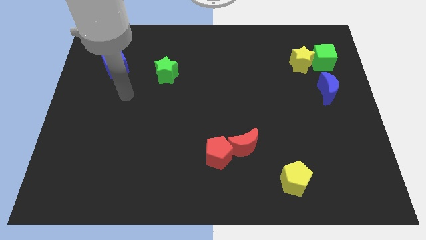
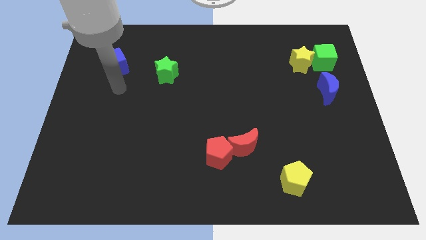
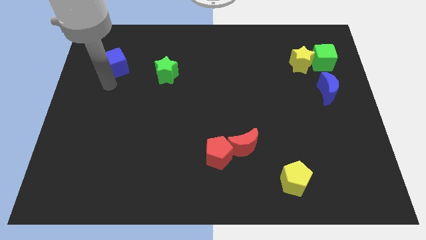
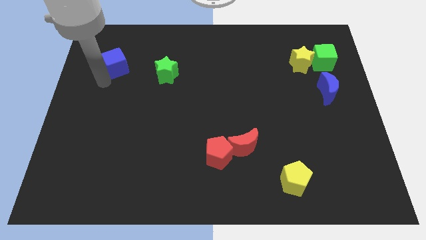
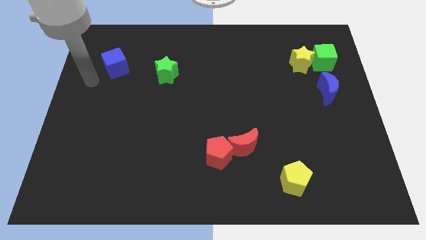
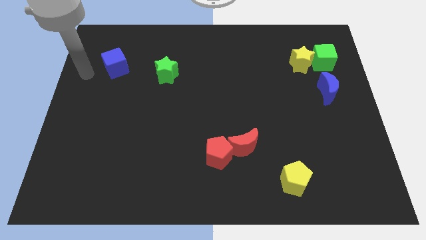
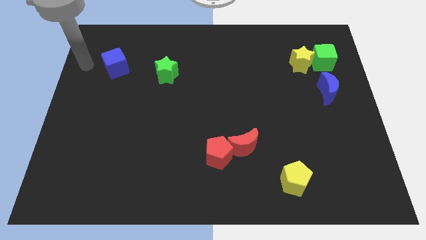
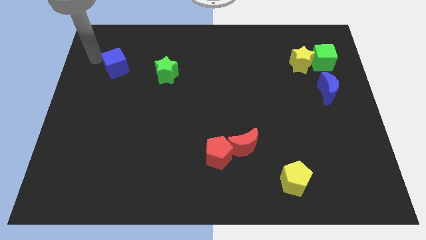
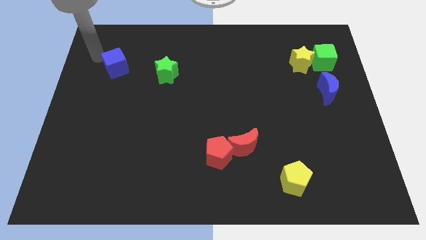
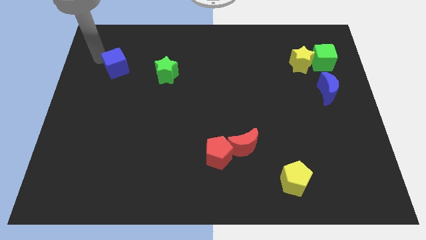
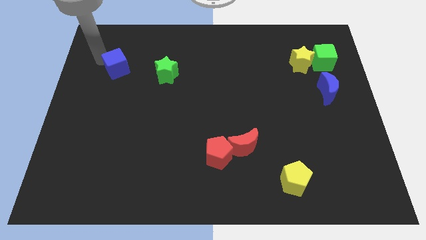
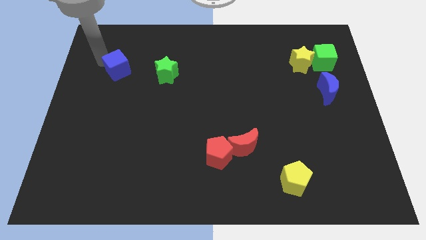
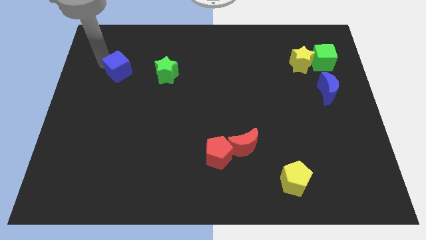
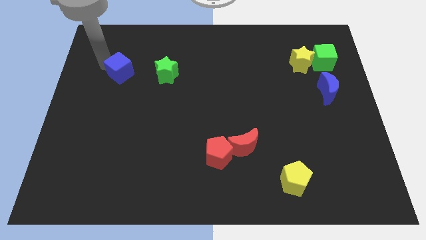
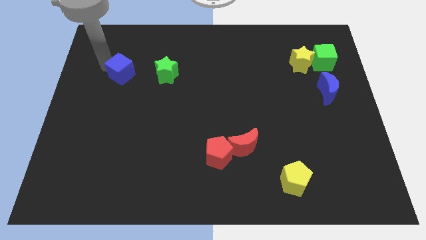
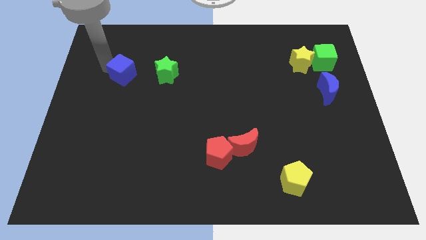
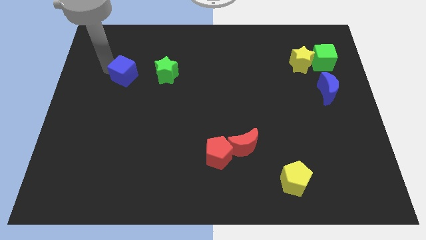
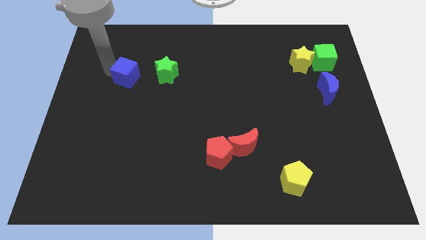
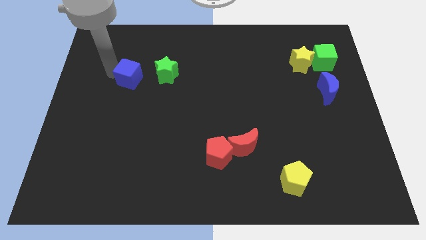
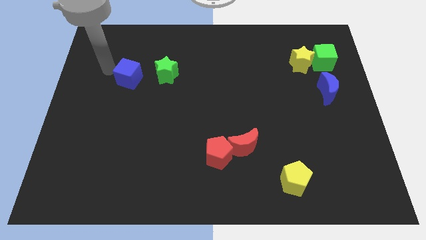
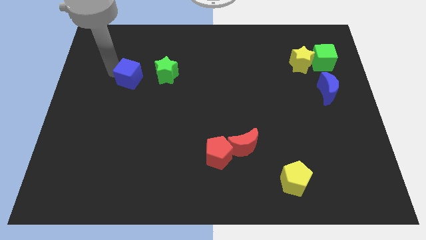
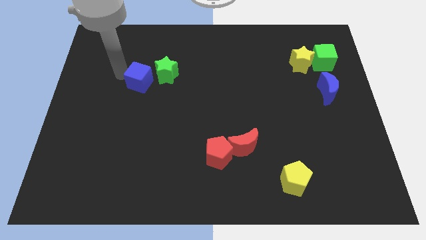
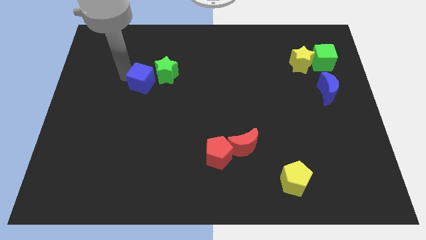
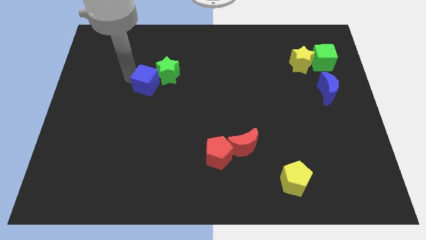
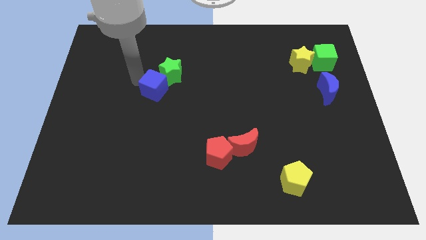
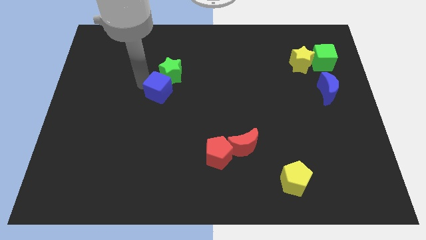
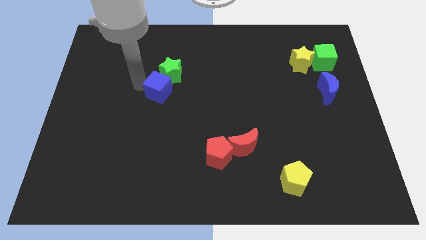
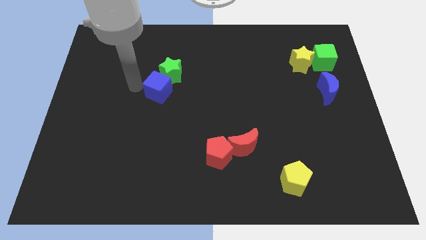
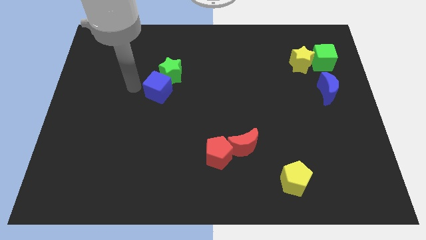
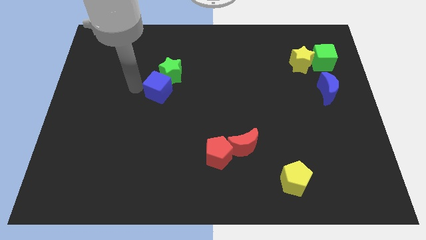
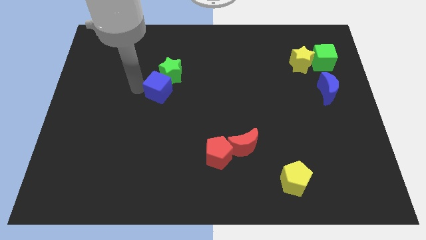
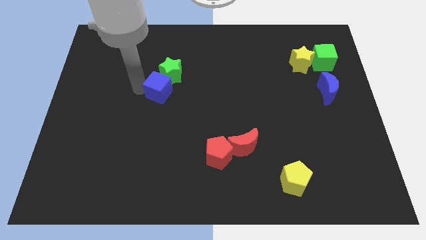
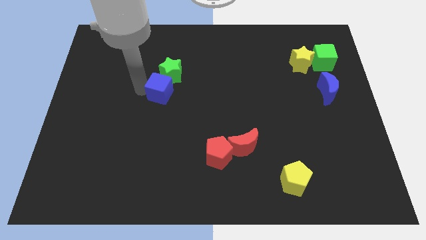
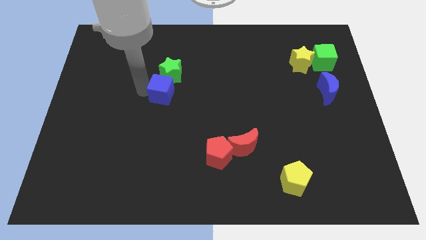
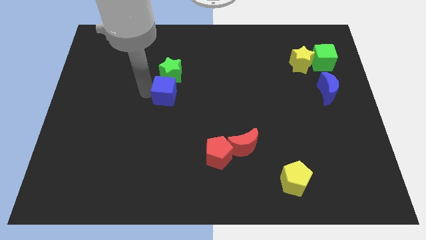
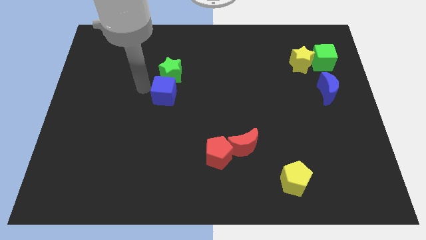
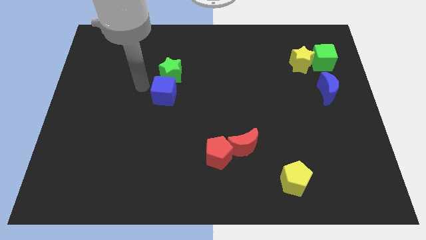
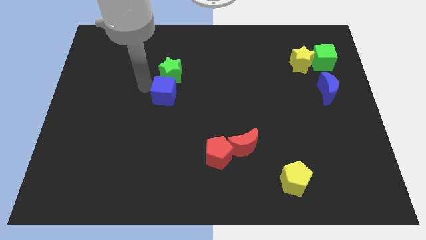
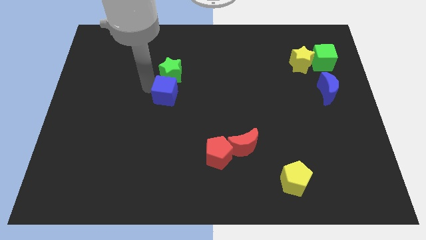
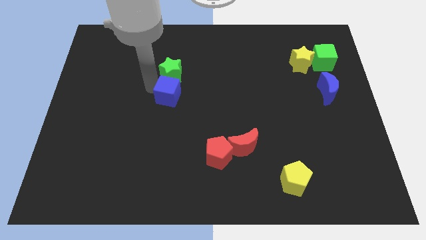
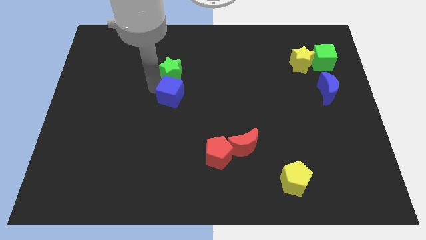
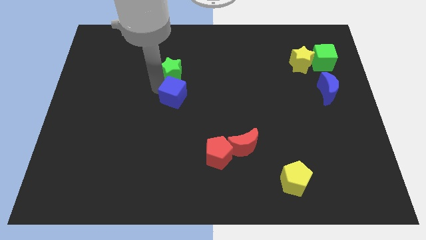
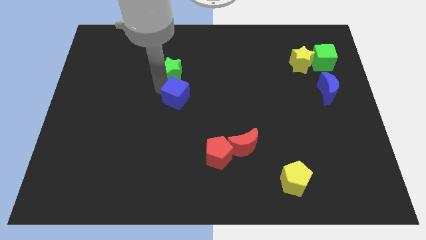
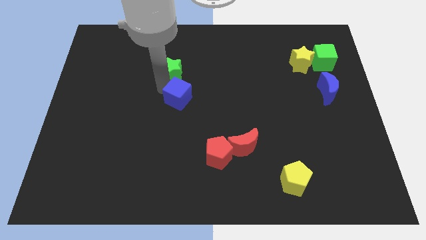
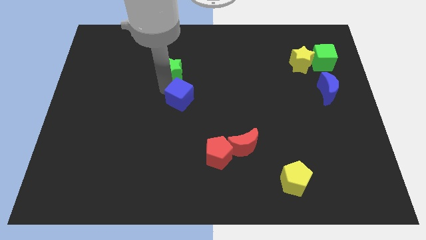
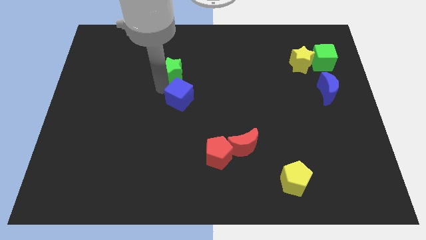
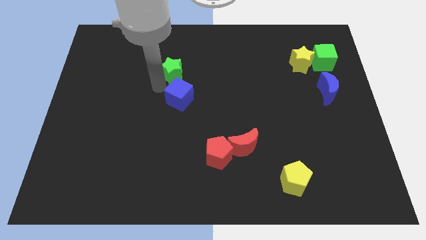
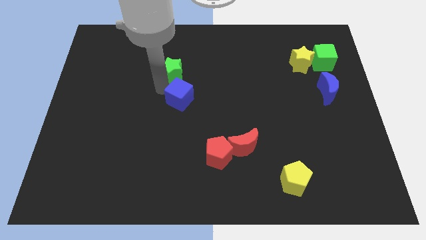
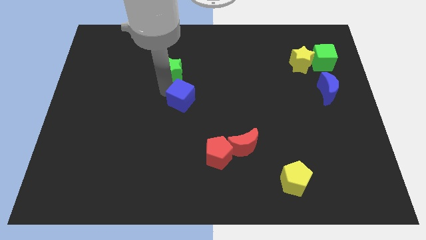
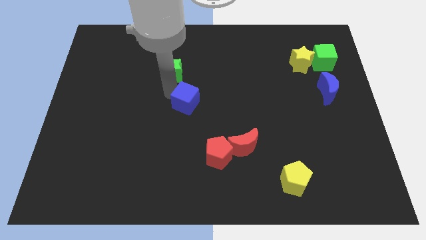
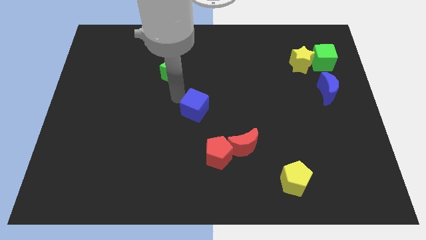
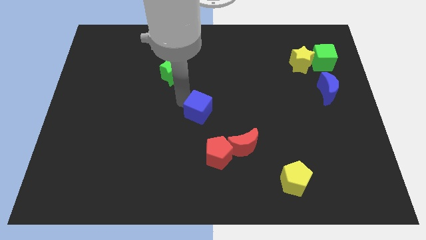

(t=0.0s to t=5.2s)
move the blue cube to the top side of the red pentagon

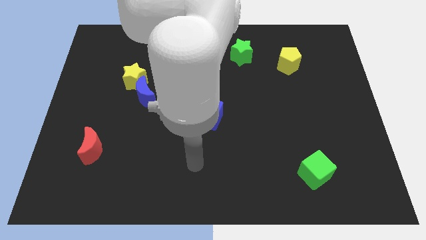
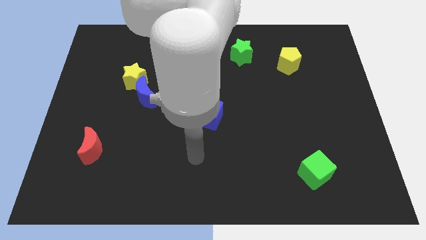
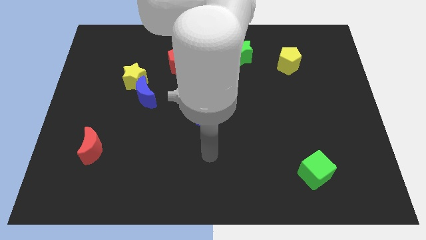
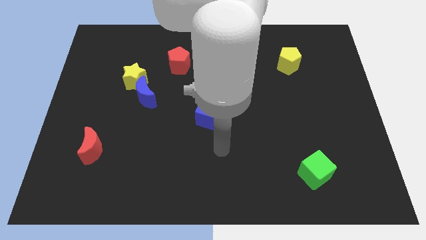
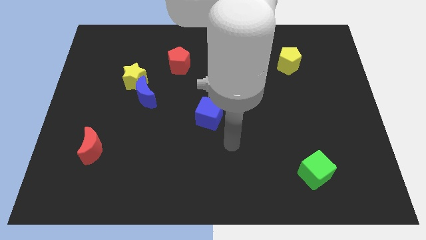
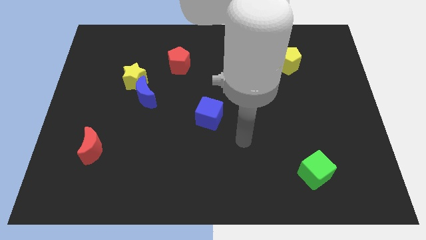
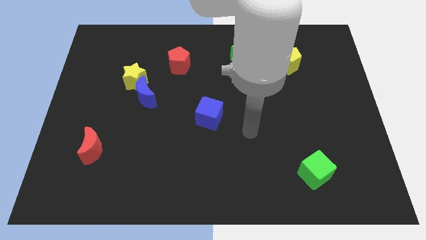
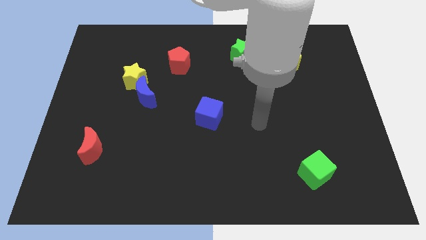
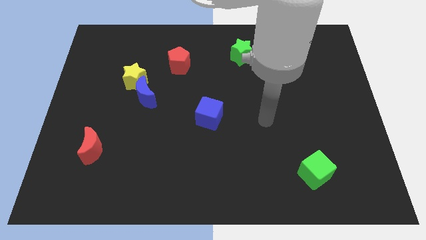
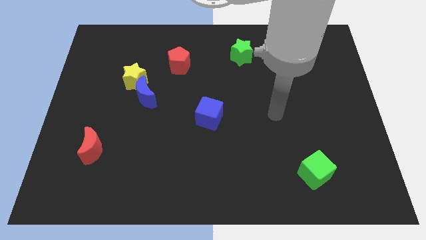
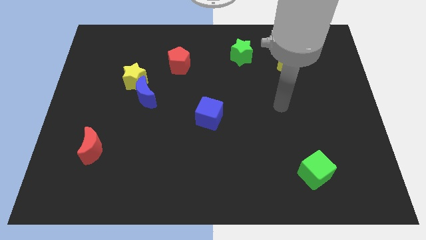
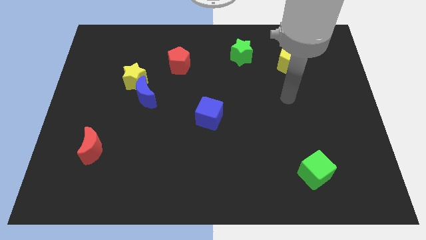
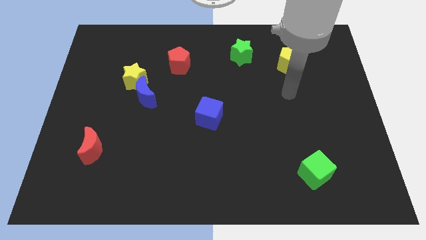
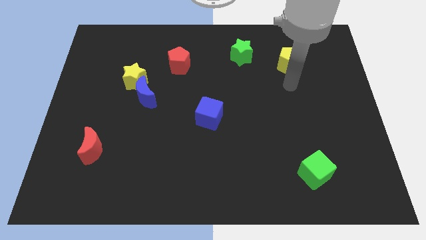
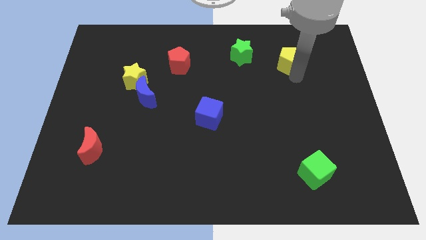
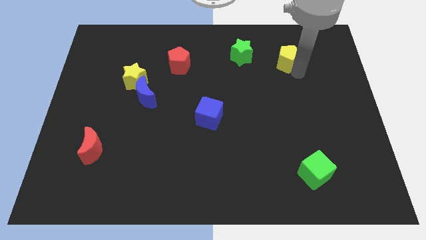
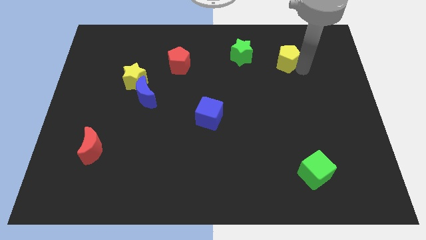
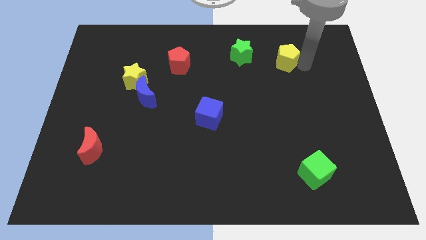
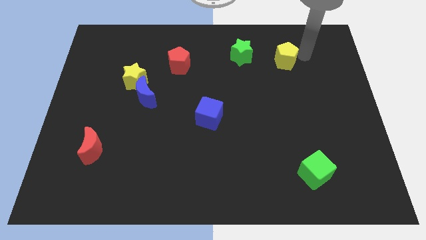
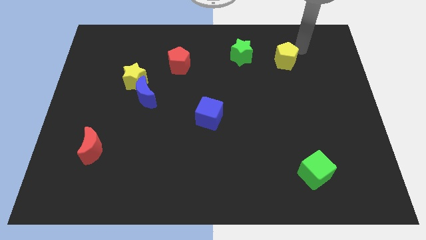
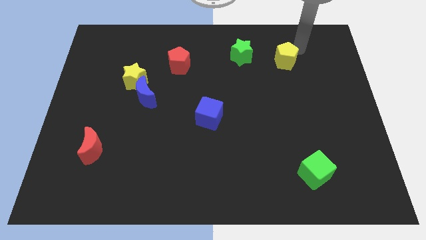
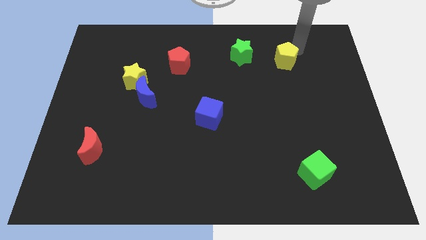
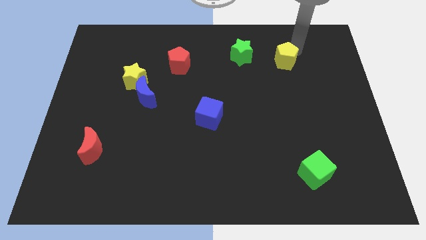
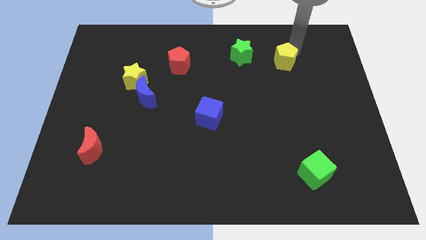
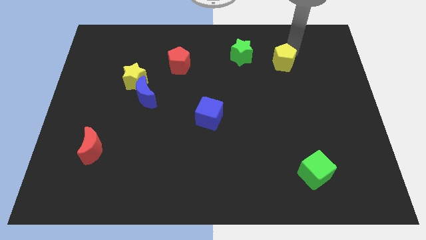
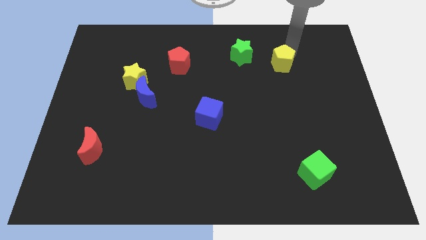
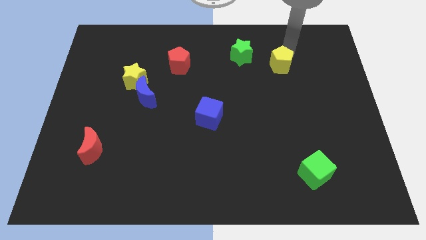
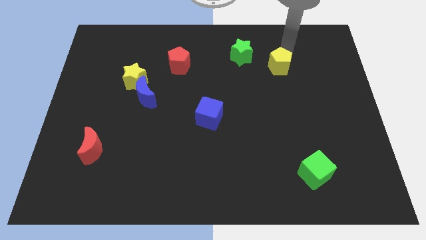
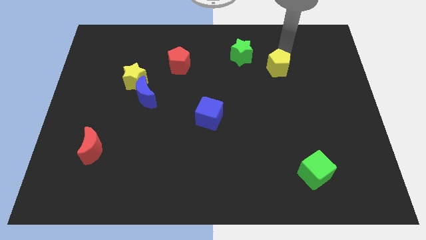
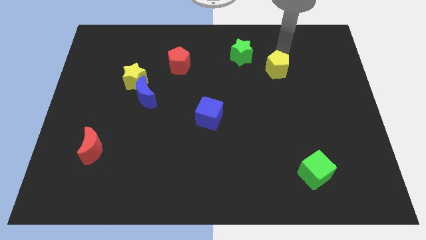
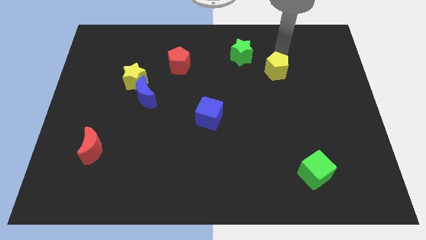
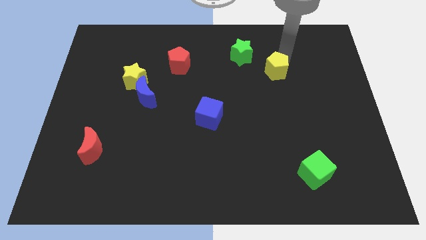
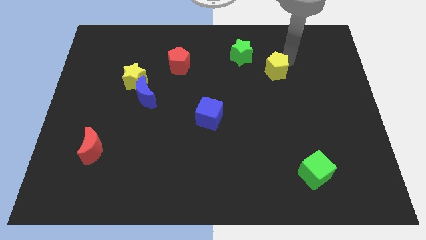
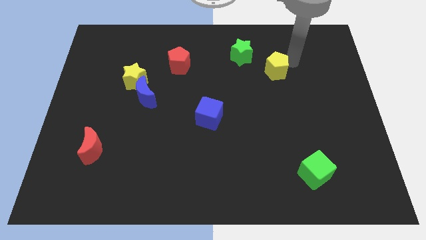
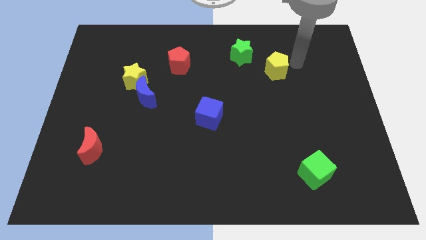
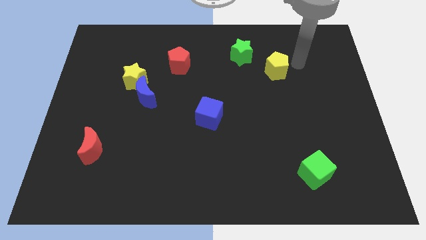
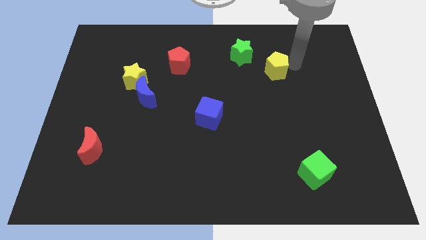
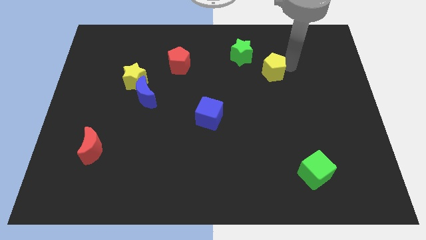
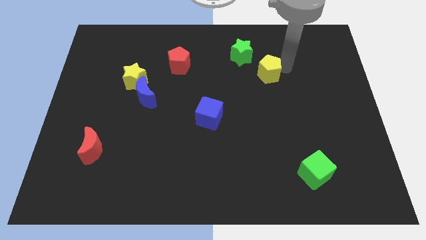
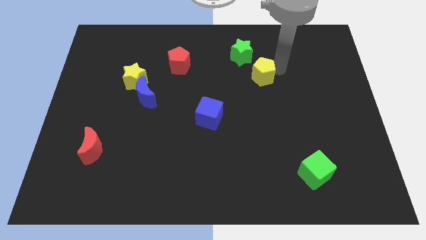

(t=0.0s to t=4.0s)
move the yellow pentagon below the green star
